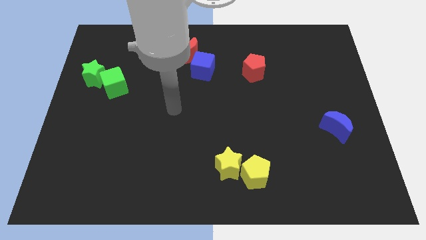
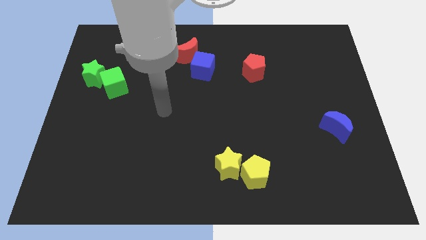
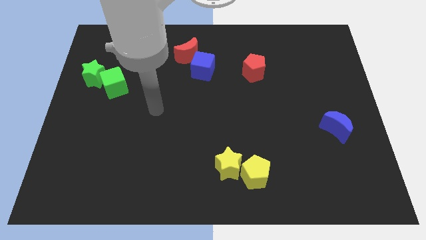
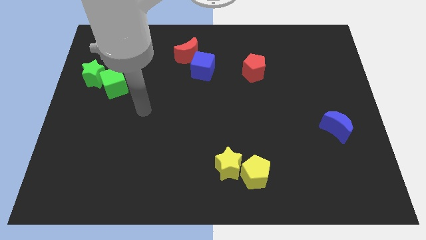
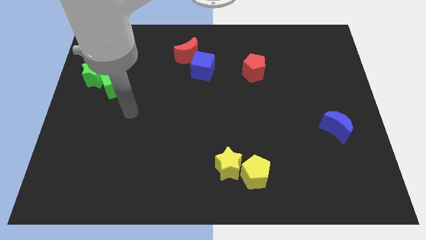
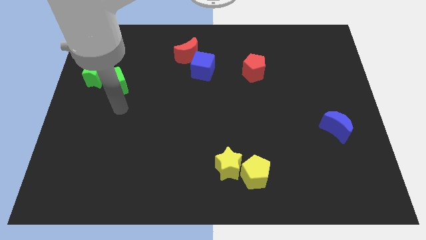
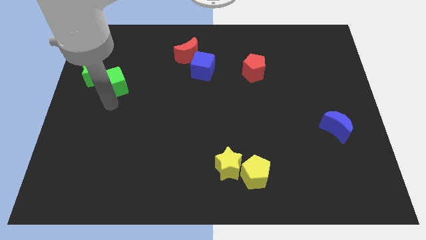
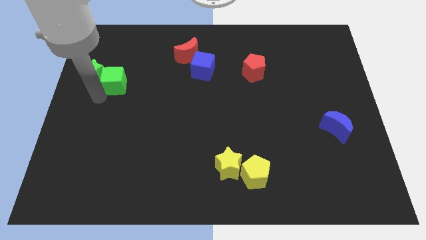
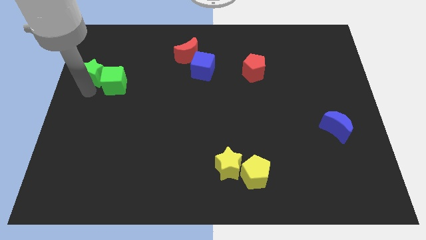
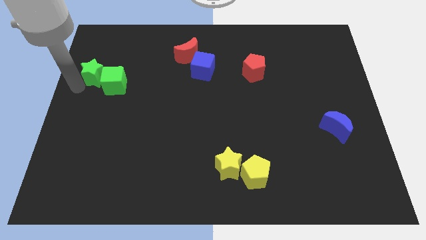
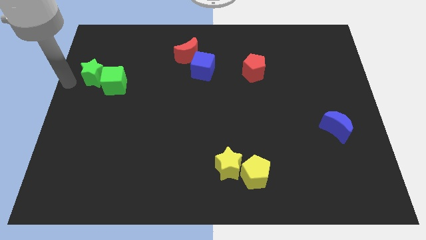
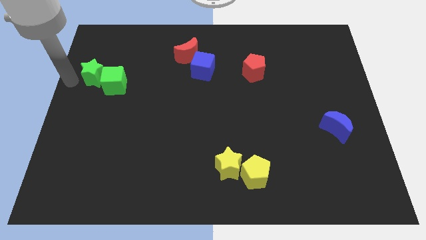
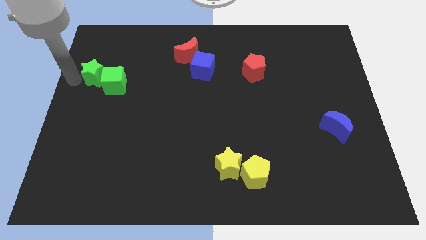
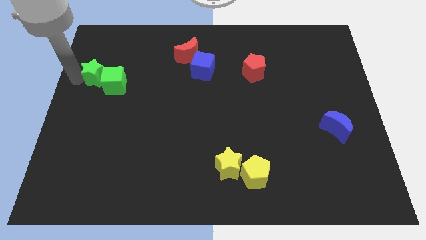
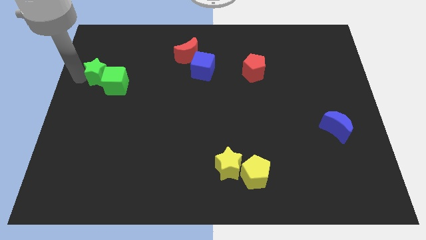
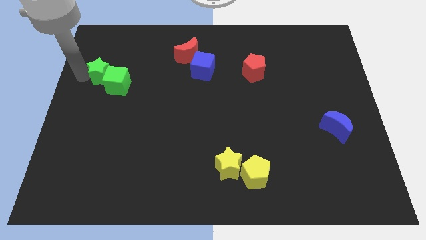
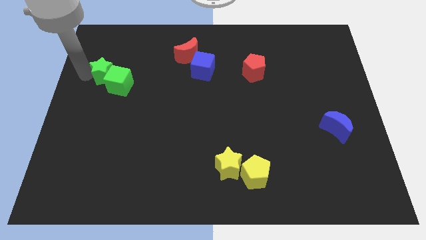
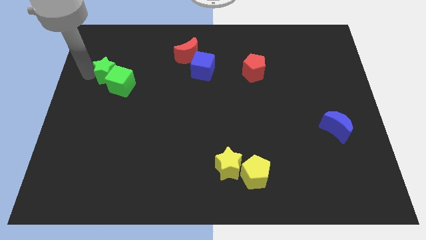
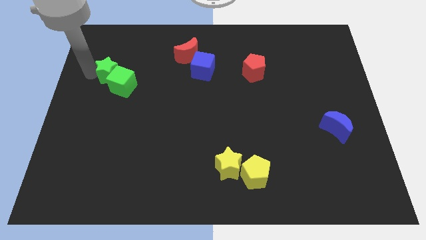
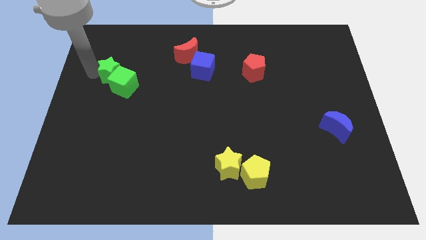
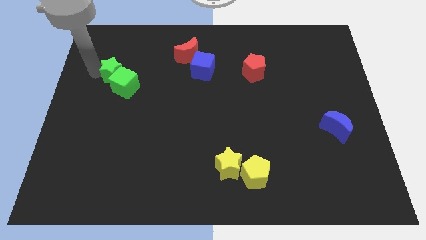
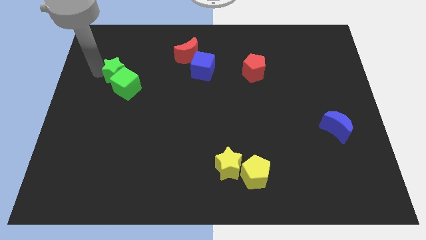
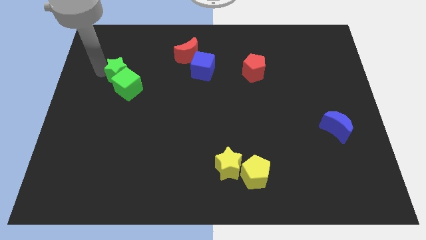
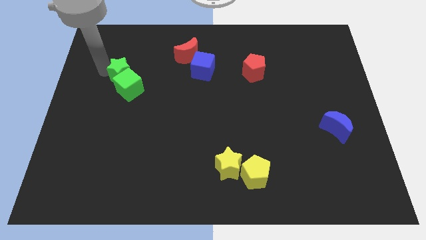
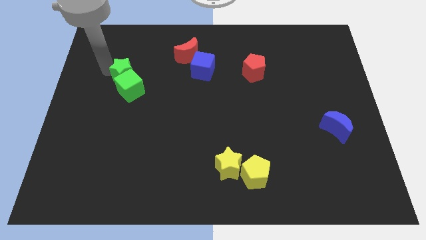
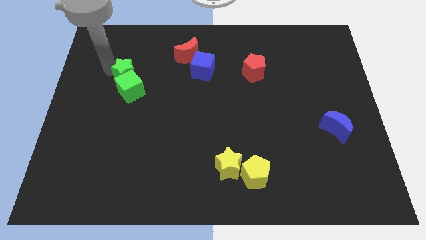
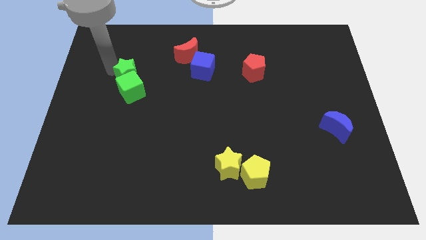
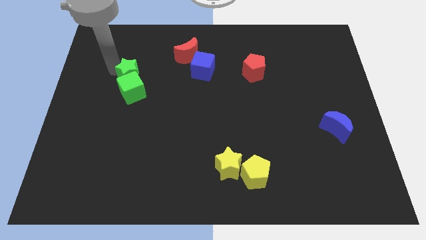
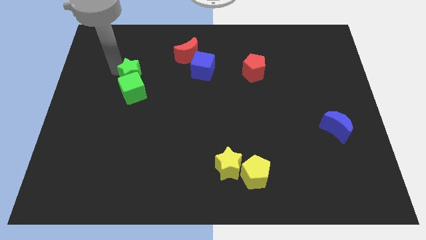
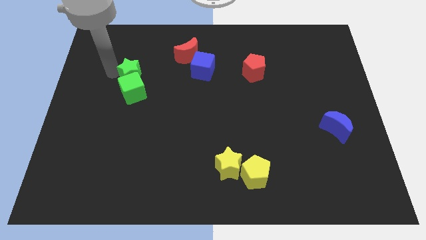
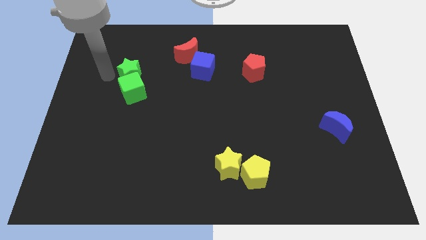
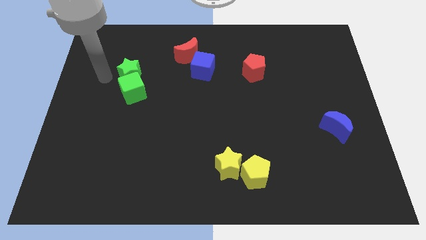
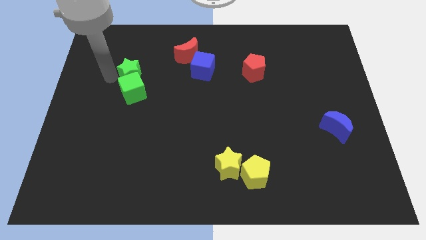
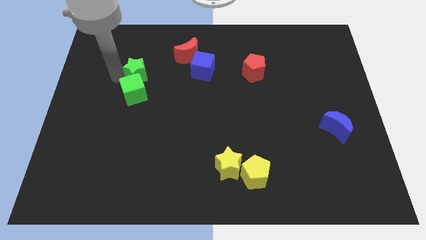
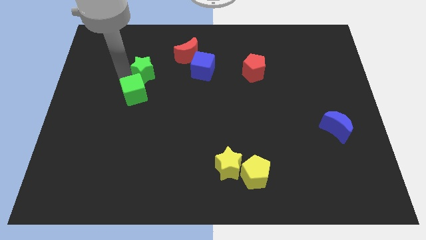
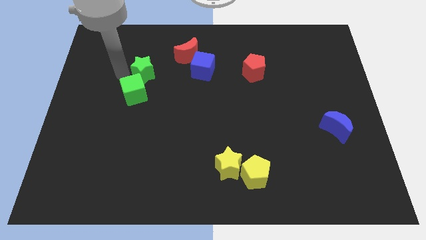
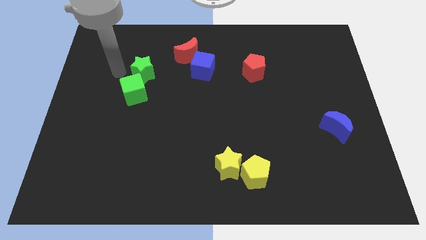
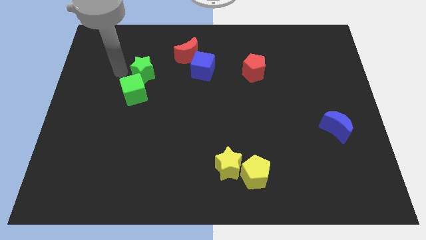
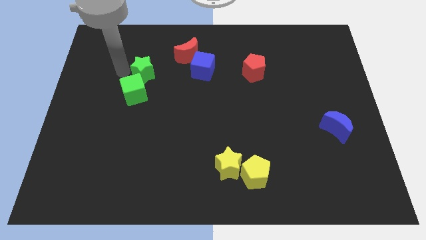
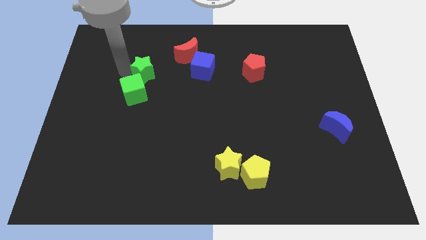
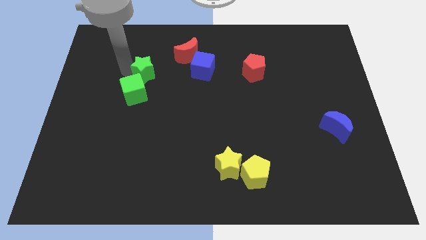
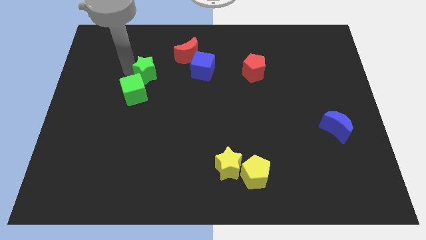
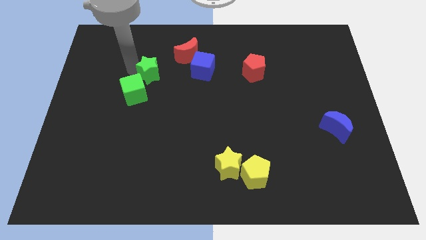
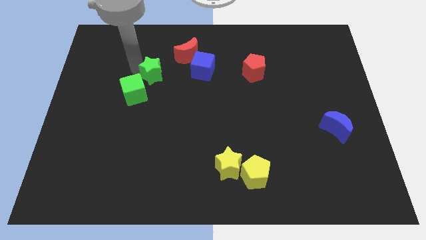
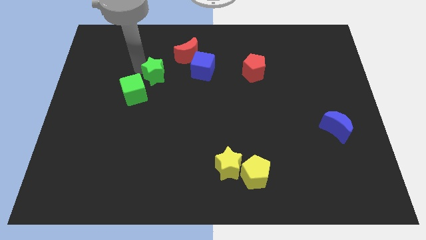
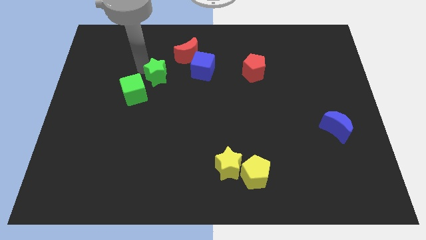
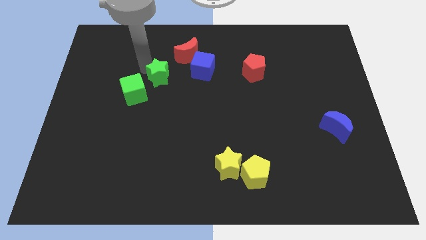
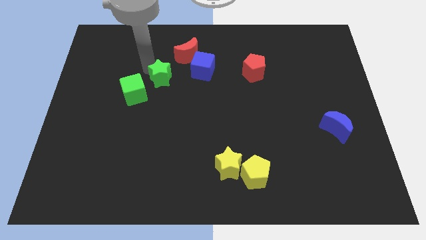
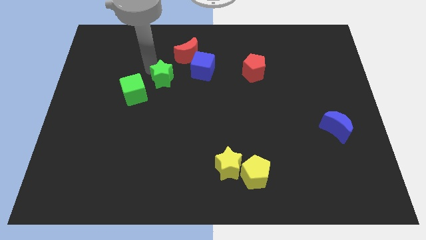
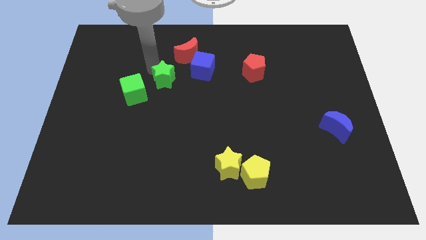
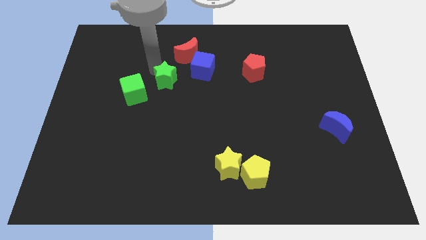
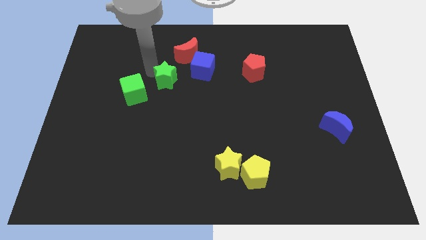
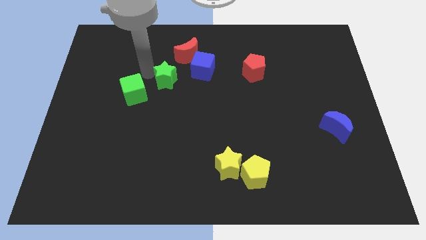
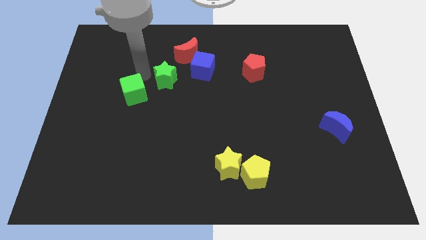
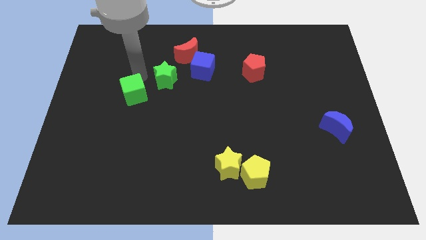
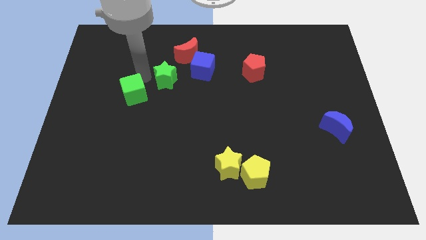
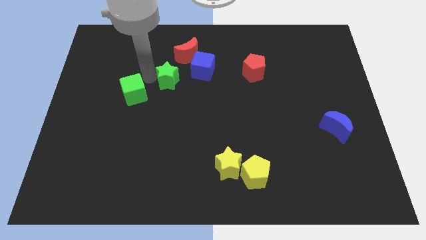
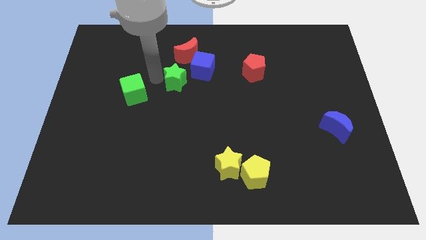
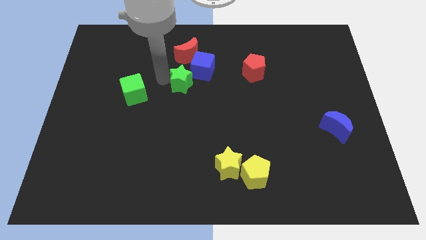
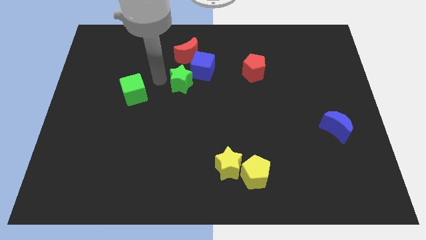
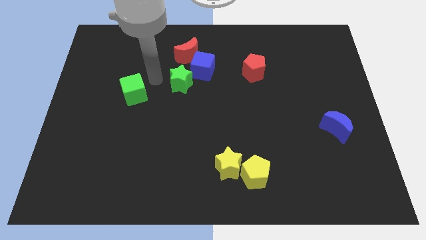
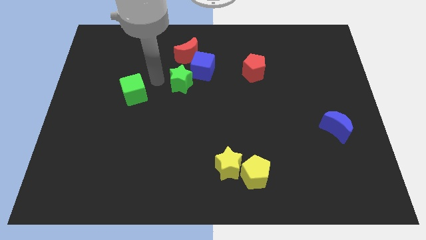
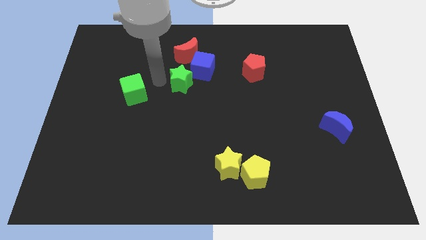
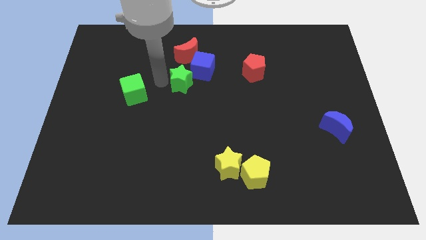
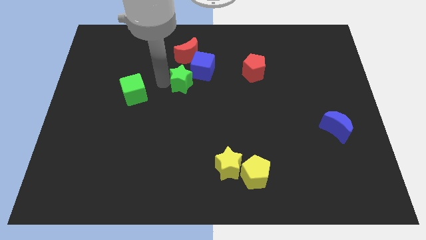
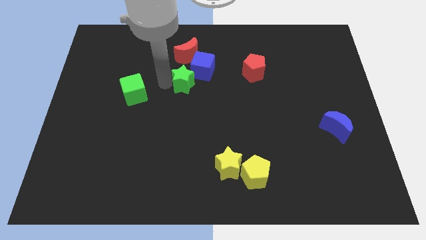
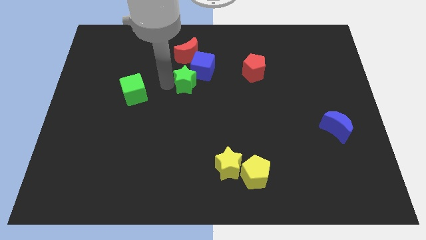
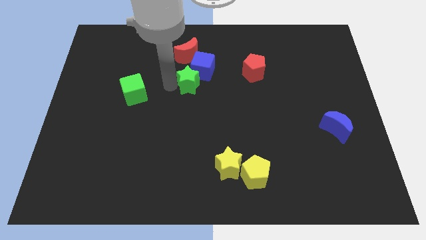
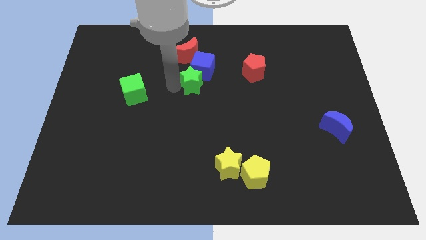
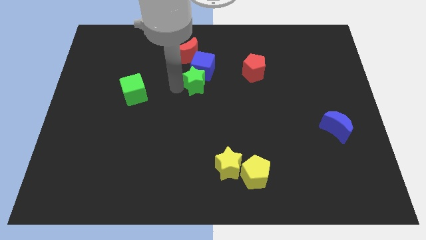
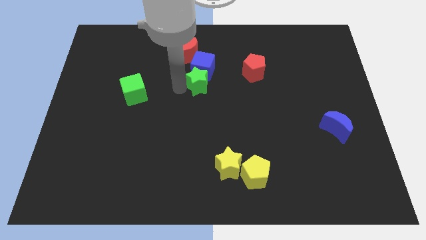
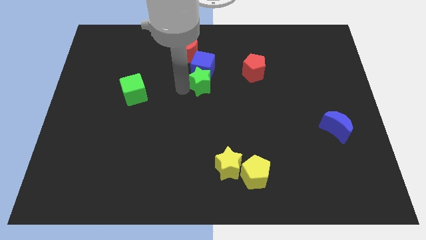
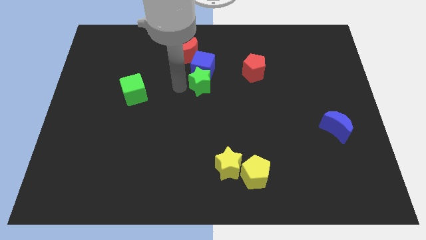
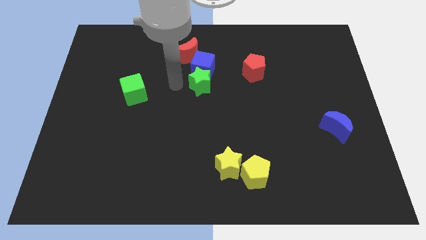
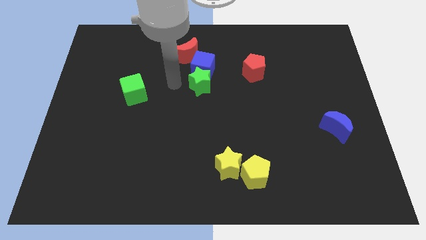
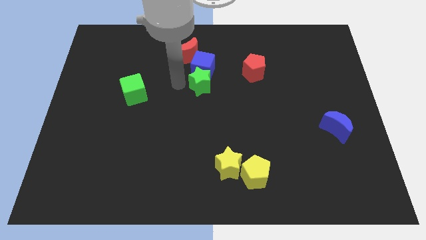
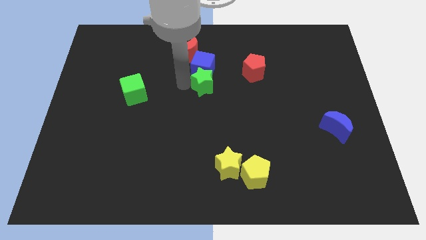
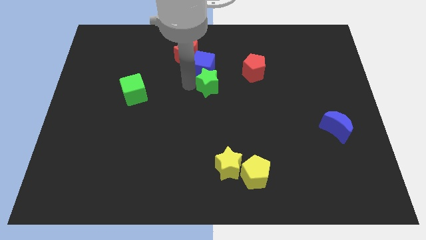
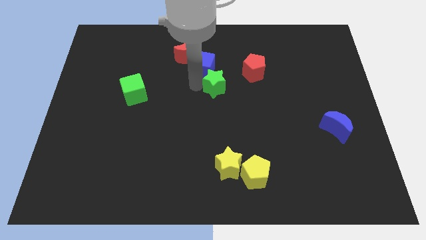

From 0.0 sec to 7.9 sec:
slide the green star to the bottom left of the red pentagon

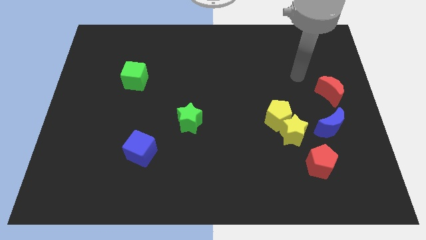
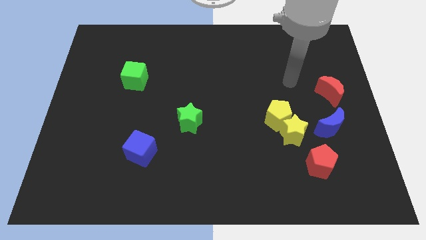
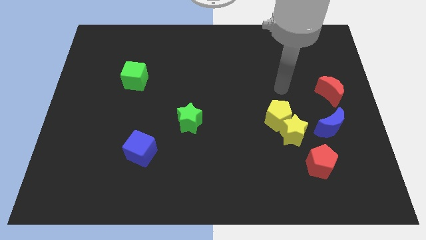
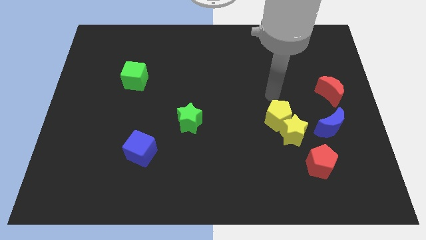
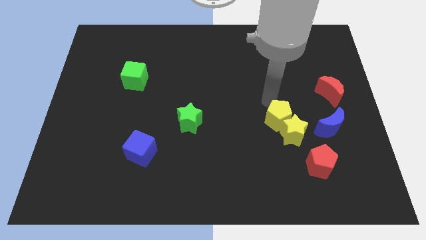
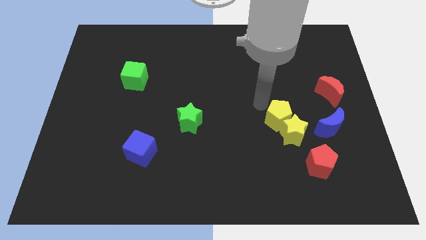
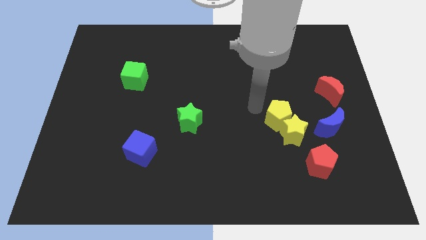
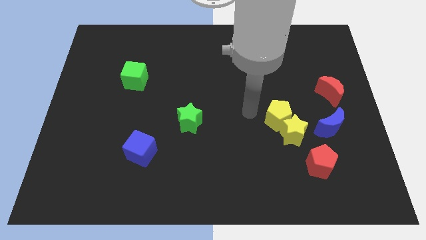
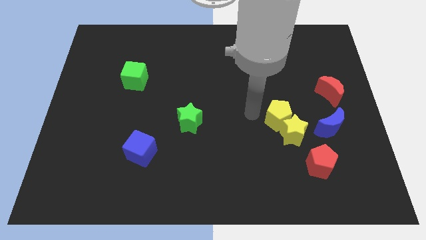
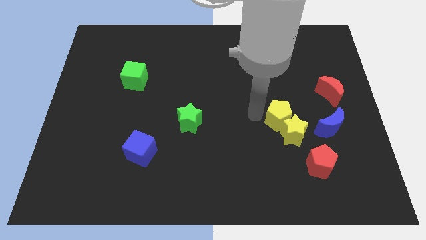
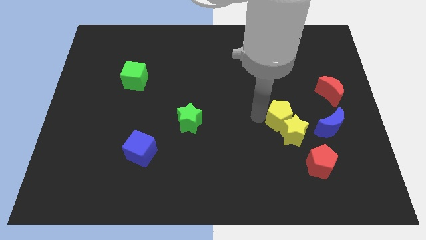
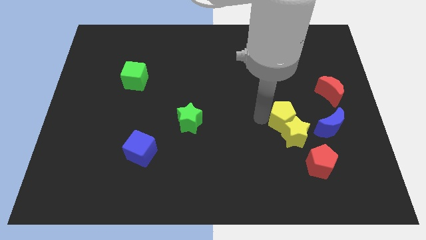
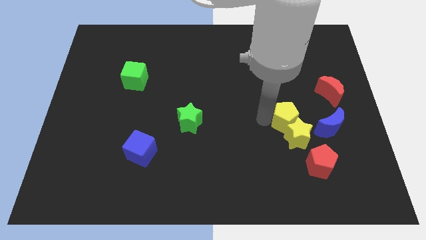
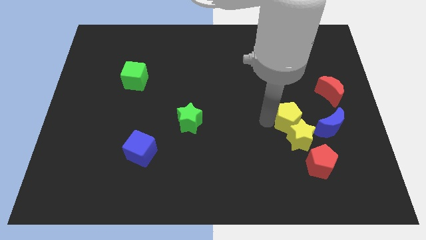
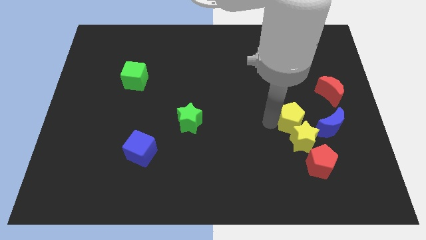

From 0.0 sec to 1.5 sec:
move the yellow pentagon above the red pentagon
